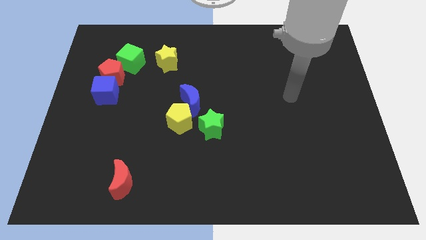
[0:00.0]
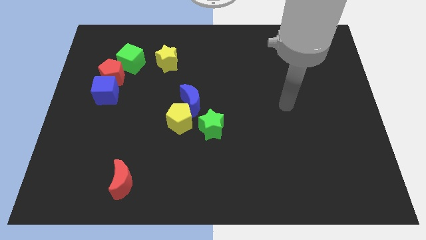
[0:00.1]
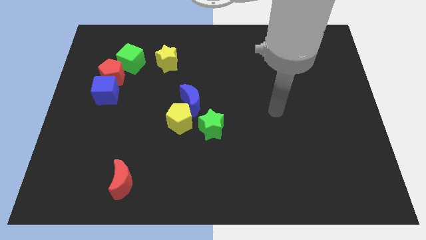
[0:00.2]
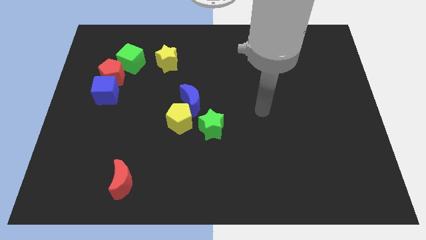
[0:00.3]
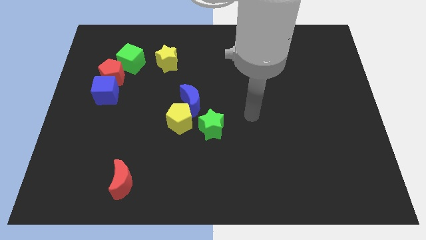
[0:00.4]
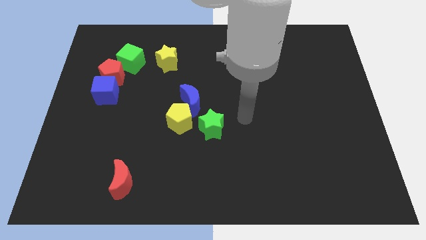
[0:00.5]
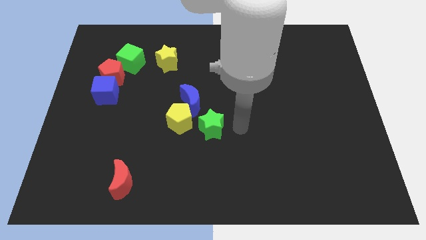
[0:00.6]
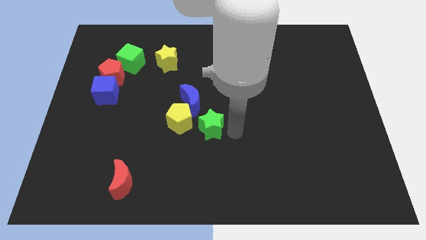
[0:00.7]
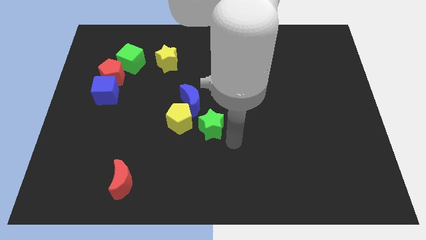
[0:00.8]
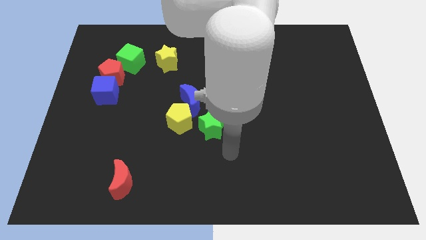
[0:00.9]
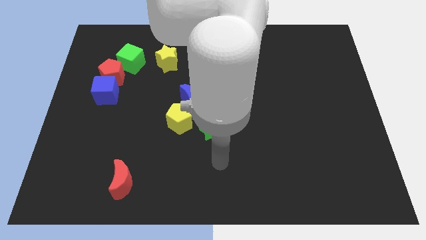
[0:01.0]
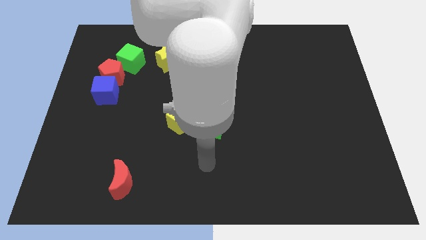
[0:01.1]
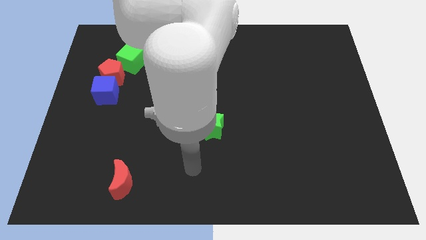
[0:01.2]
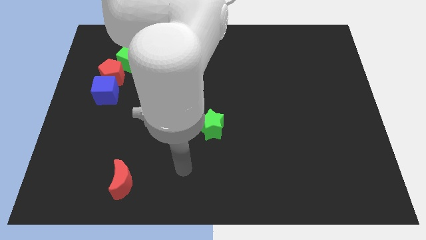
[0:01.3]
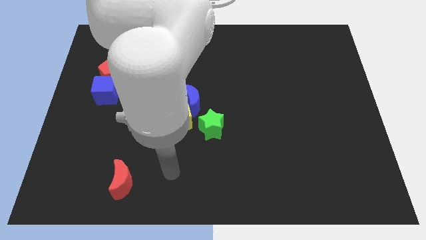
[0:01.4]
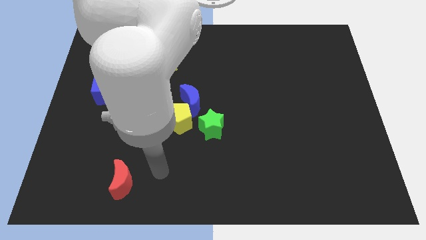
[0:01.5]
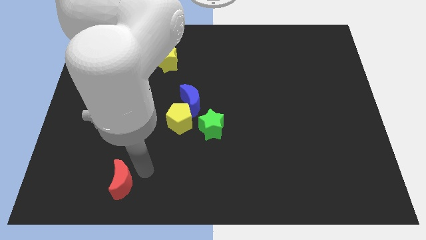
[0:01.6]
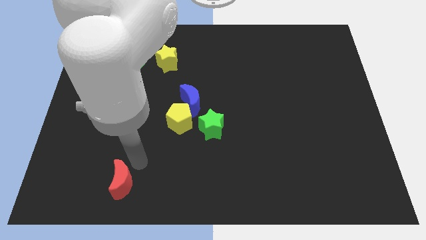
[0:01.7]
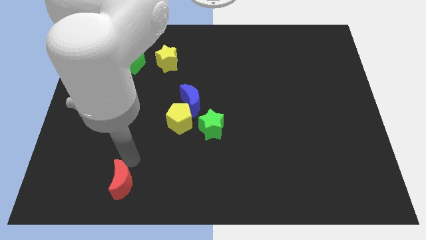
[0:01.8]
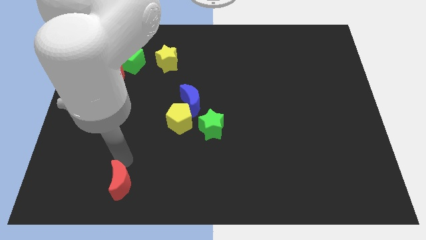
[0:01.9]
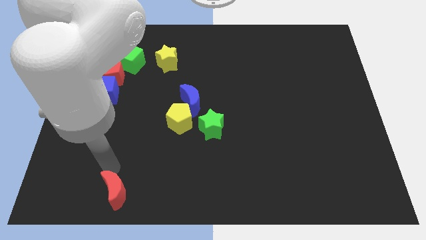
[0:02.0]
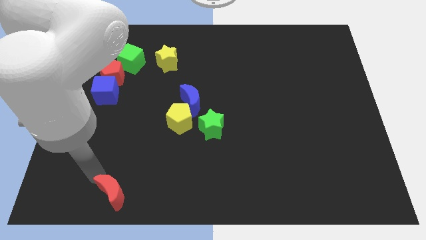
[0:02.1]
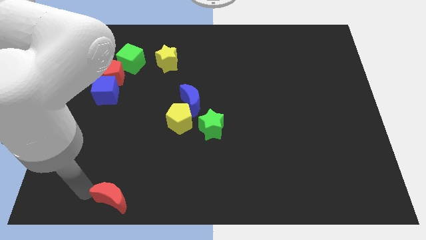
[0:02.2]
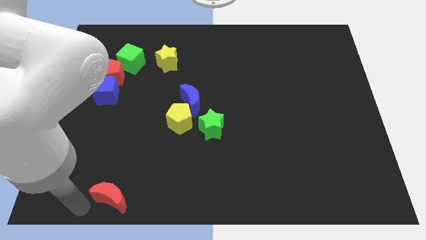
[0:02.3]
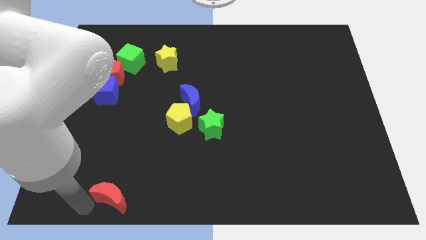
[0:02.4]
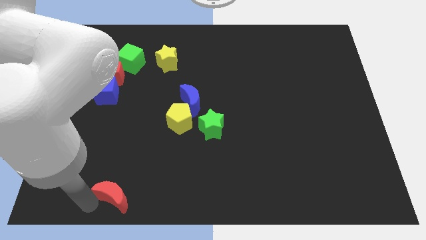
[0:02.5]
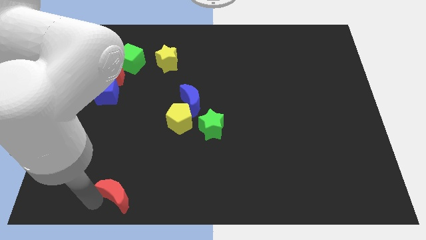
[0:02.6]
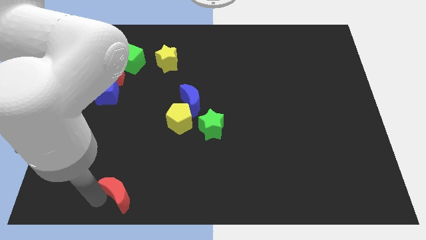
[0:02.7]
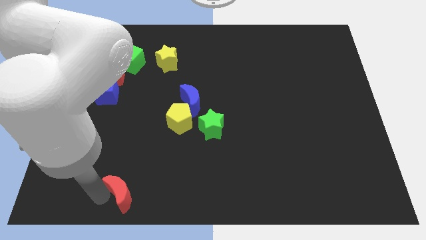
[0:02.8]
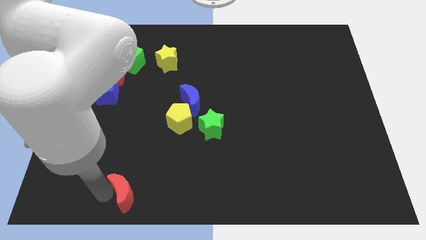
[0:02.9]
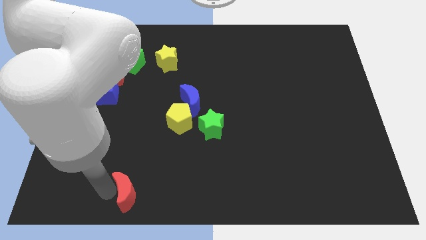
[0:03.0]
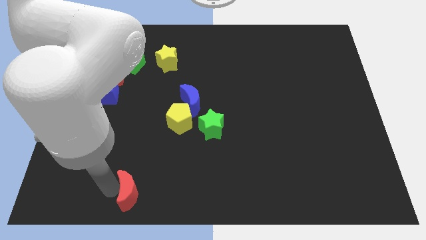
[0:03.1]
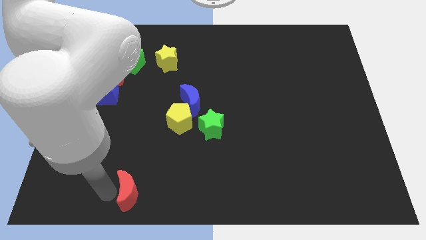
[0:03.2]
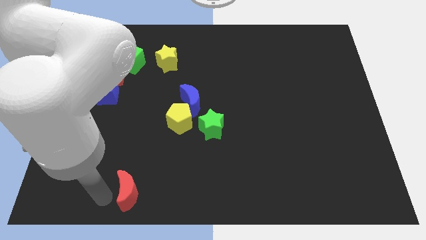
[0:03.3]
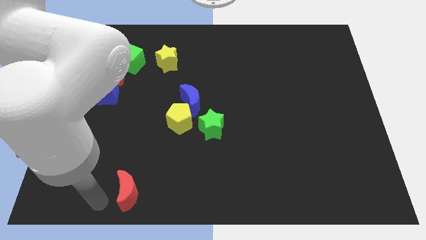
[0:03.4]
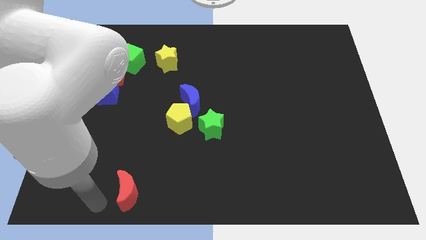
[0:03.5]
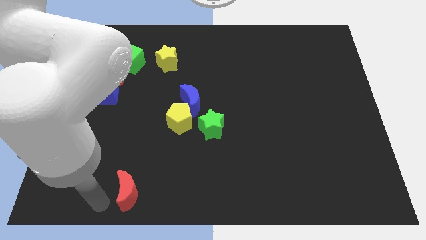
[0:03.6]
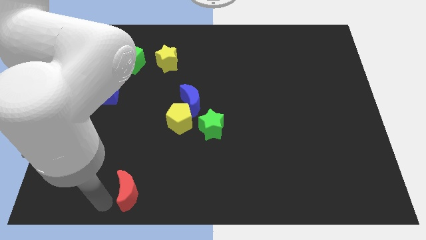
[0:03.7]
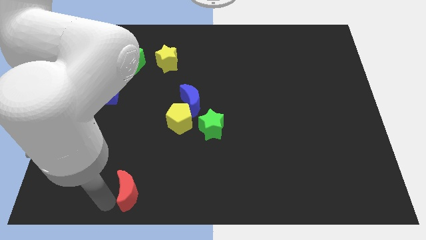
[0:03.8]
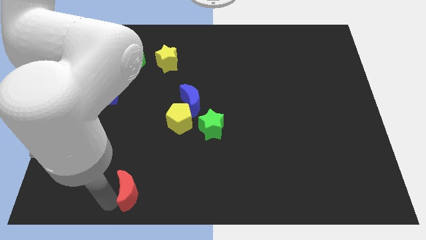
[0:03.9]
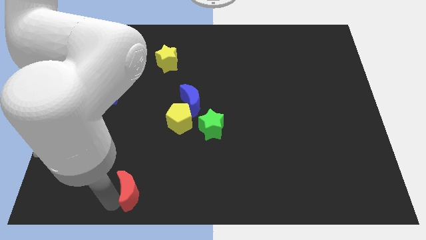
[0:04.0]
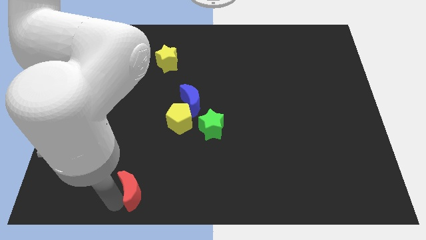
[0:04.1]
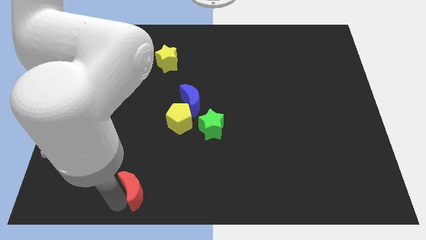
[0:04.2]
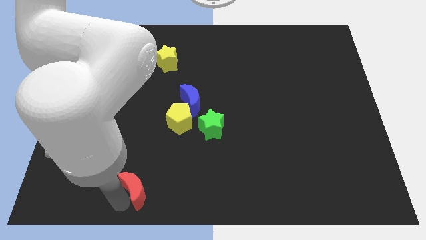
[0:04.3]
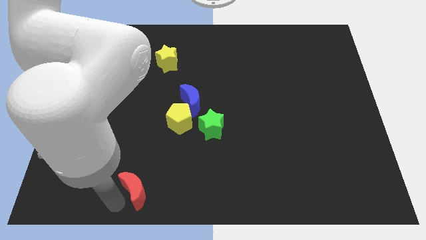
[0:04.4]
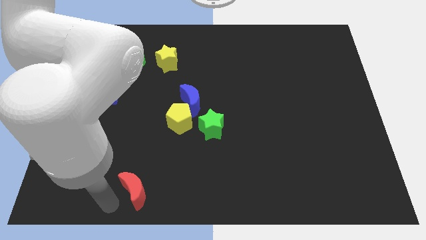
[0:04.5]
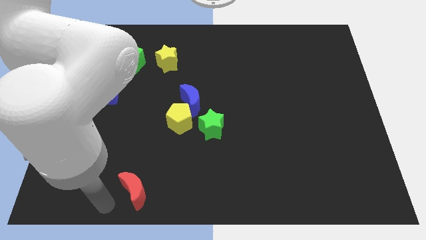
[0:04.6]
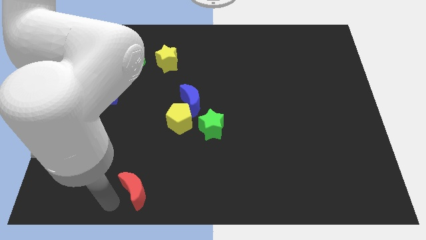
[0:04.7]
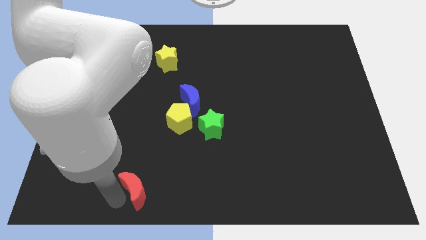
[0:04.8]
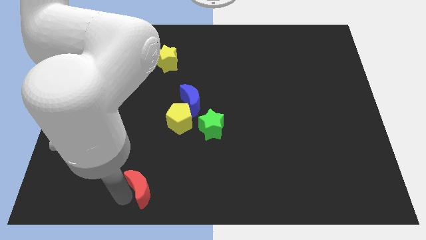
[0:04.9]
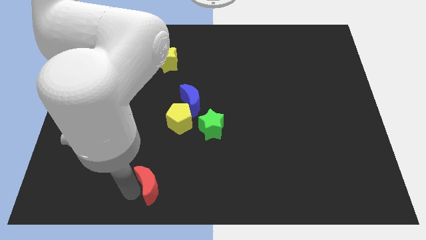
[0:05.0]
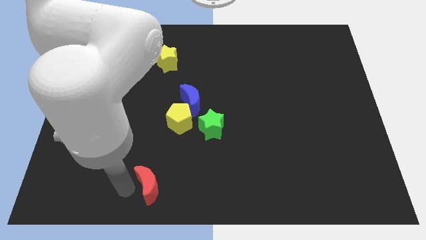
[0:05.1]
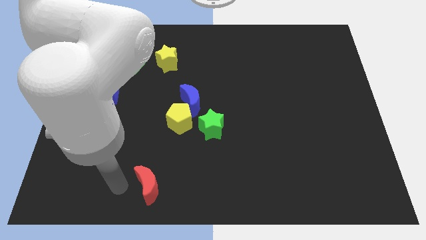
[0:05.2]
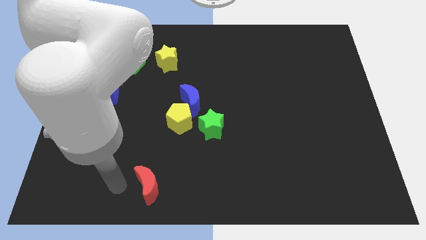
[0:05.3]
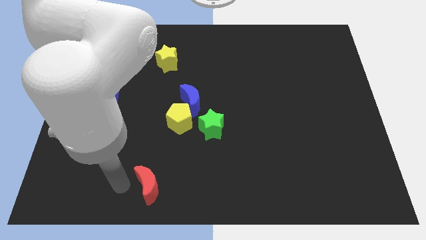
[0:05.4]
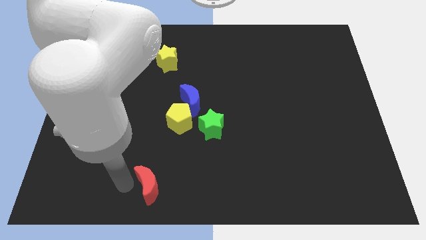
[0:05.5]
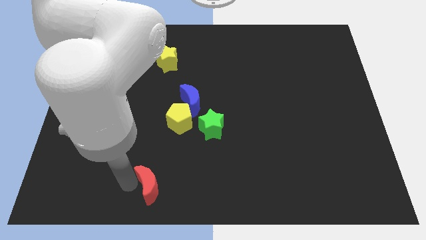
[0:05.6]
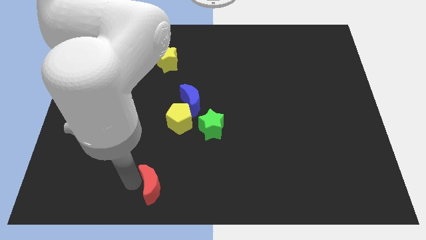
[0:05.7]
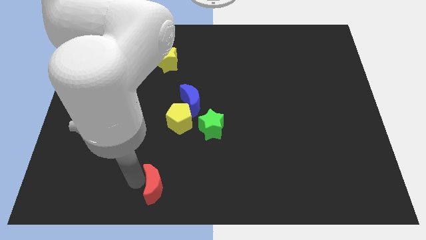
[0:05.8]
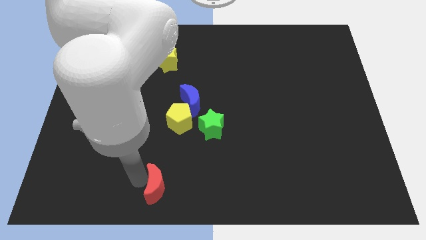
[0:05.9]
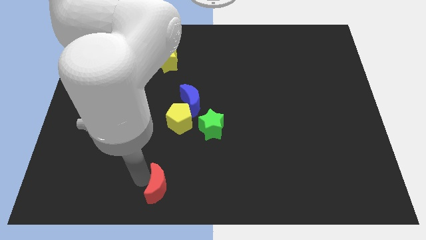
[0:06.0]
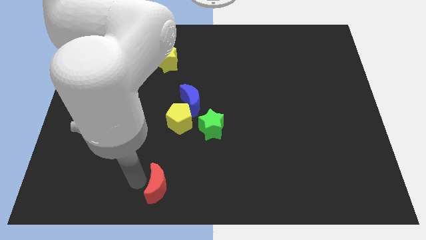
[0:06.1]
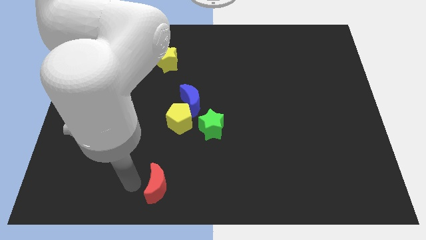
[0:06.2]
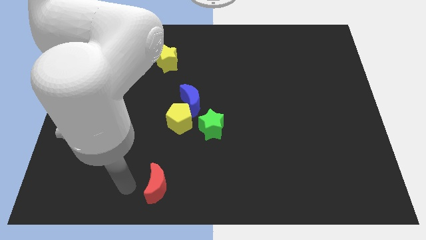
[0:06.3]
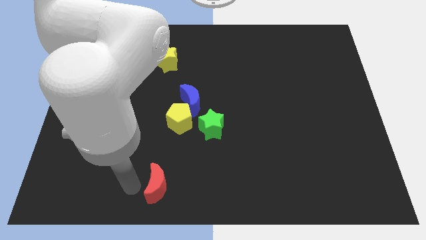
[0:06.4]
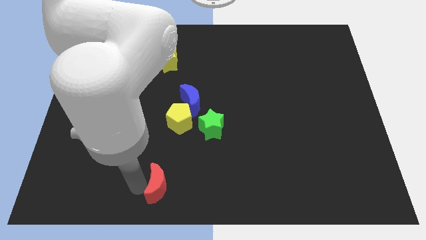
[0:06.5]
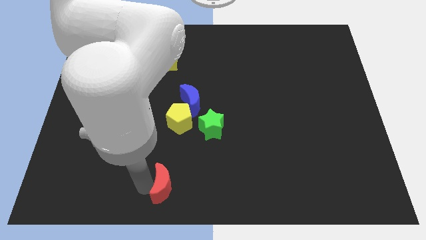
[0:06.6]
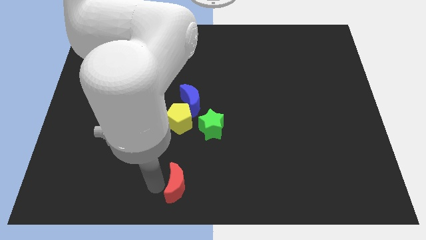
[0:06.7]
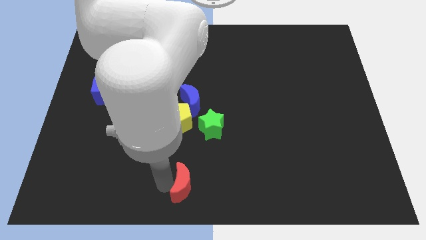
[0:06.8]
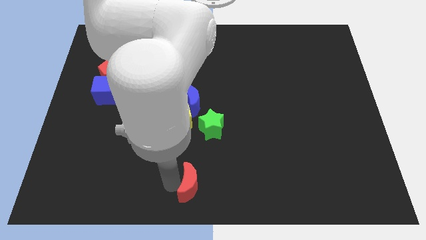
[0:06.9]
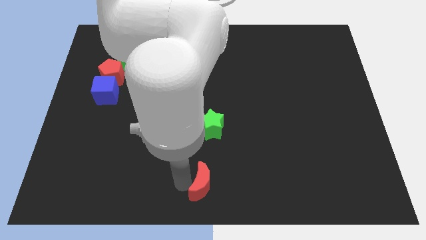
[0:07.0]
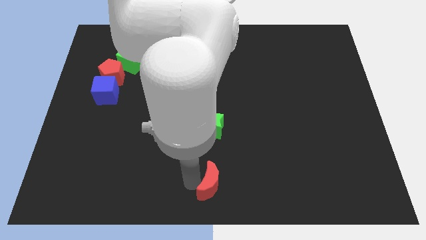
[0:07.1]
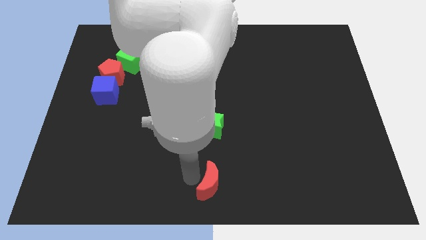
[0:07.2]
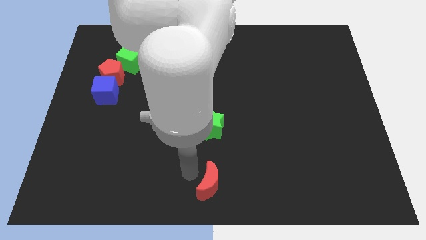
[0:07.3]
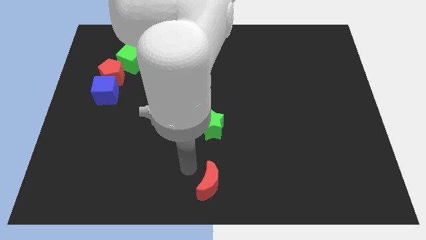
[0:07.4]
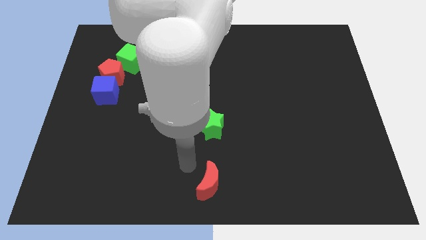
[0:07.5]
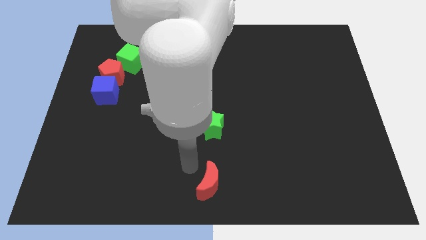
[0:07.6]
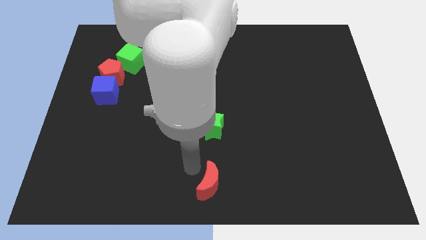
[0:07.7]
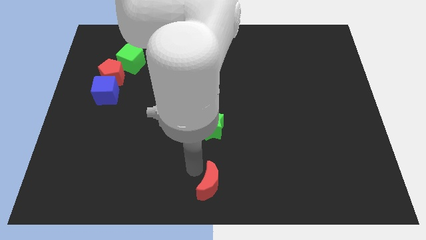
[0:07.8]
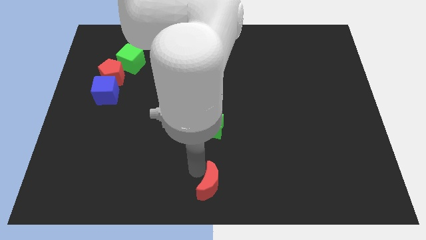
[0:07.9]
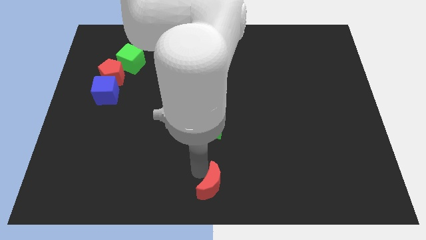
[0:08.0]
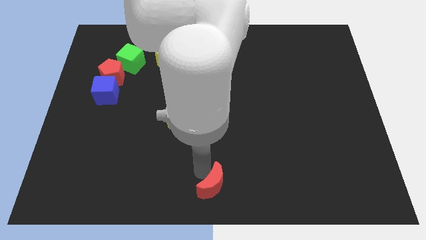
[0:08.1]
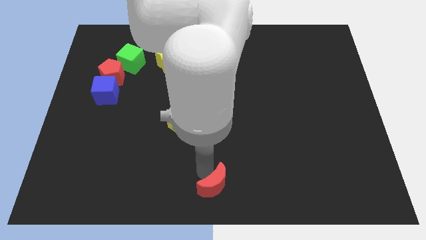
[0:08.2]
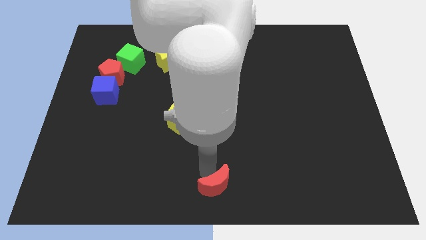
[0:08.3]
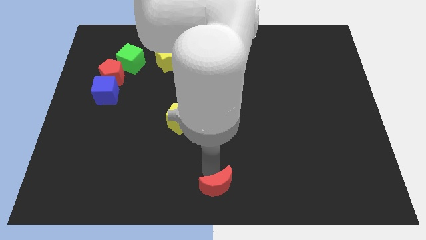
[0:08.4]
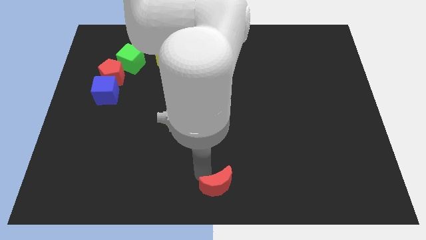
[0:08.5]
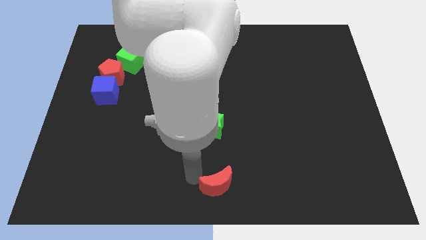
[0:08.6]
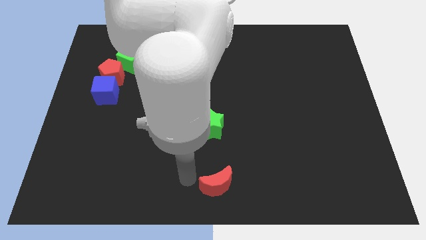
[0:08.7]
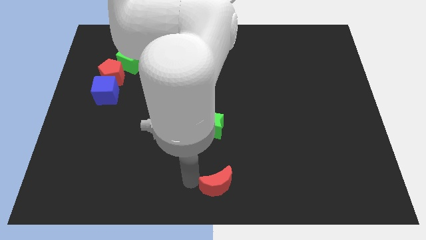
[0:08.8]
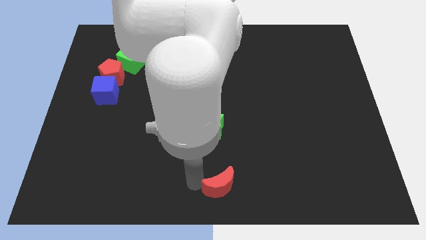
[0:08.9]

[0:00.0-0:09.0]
move the red moon right
